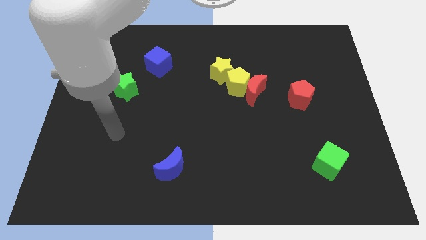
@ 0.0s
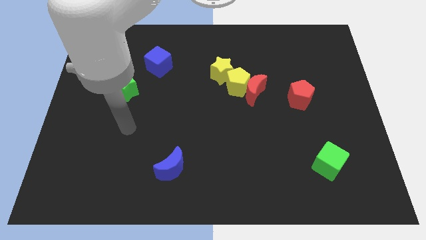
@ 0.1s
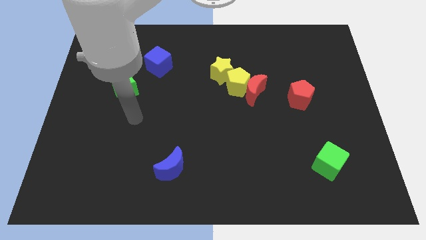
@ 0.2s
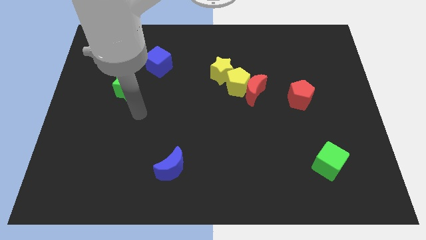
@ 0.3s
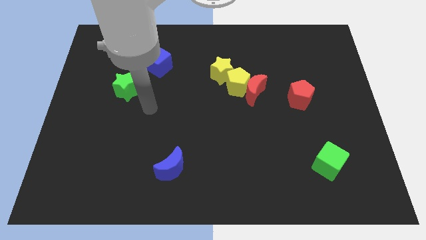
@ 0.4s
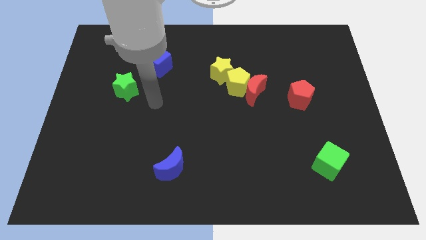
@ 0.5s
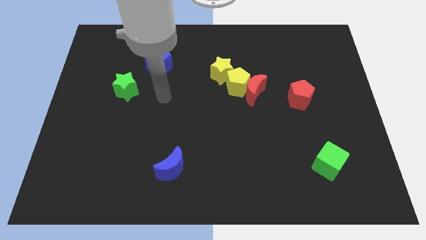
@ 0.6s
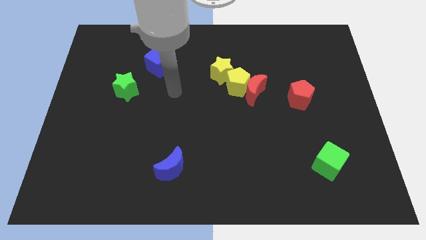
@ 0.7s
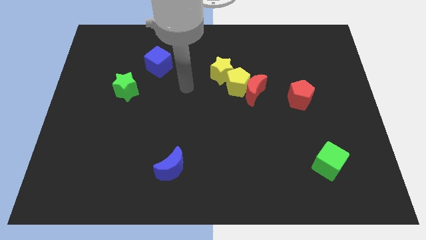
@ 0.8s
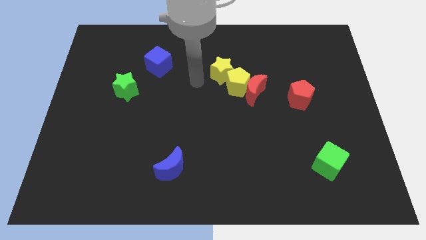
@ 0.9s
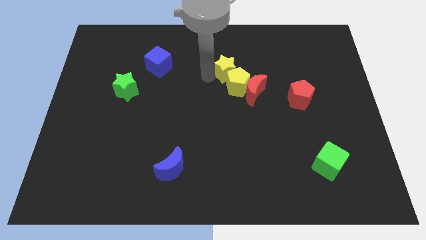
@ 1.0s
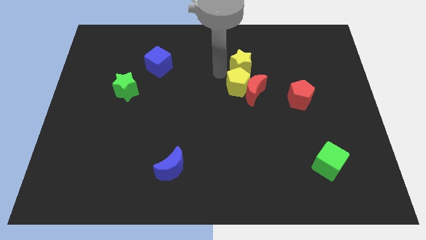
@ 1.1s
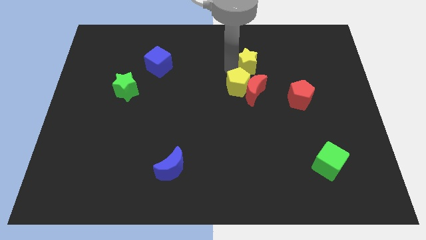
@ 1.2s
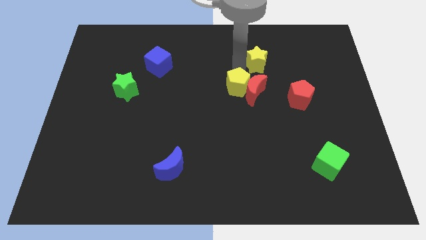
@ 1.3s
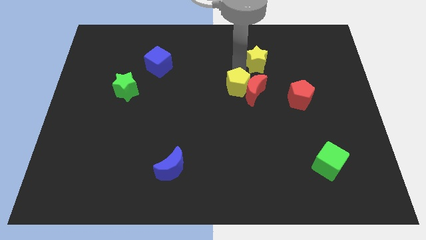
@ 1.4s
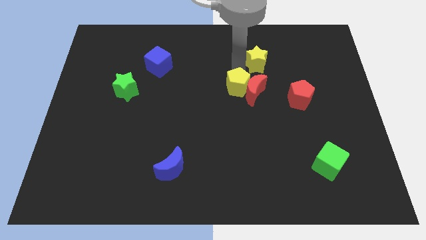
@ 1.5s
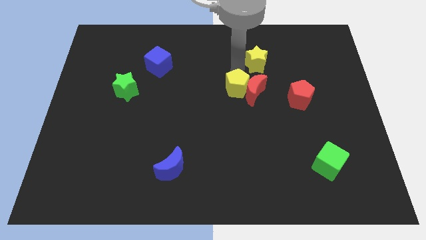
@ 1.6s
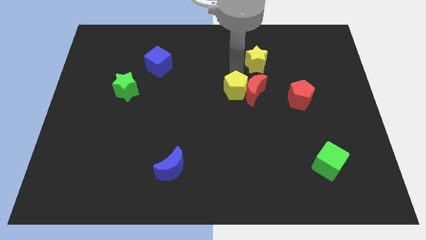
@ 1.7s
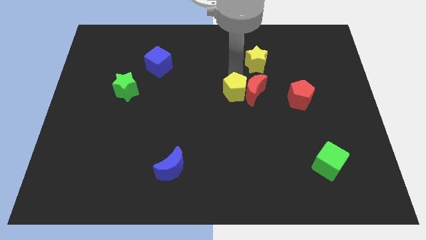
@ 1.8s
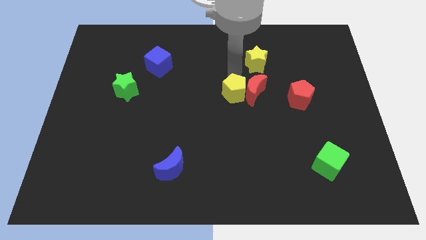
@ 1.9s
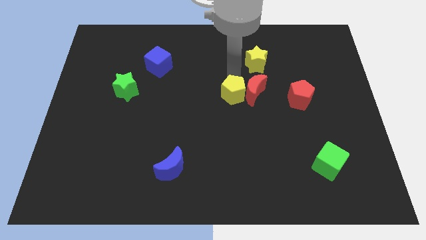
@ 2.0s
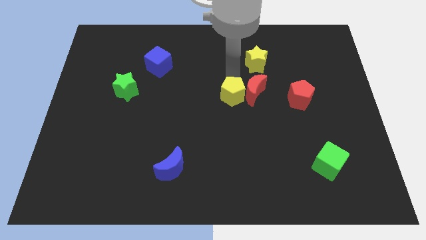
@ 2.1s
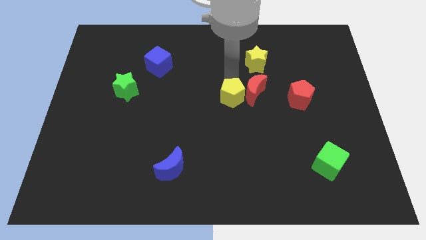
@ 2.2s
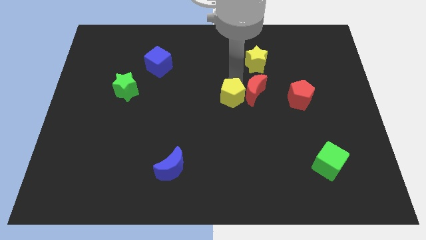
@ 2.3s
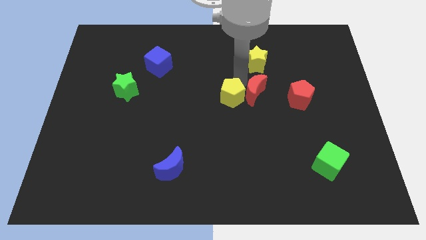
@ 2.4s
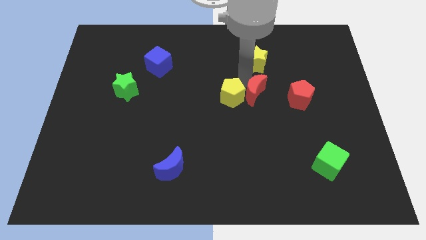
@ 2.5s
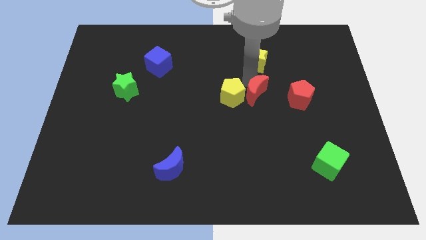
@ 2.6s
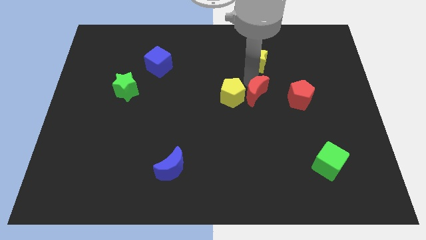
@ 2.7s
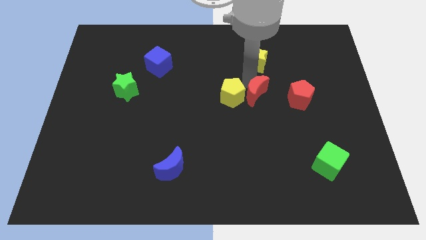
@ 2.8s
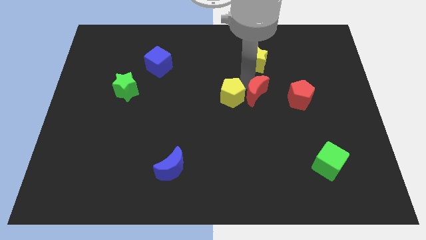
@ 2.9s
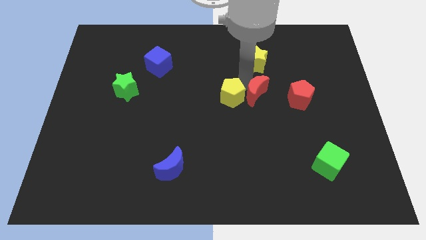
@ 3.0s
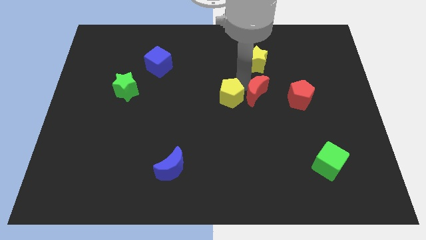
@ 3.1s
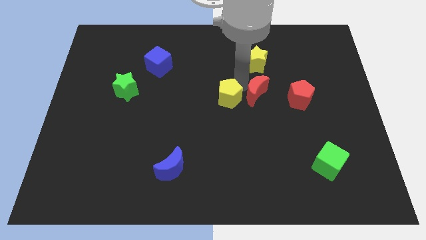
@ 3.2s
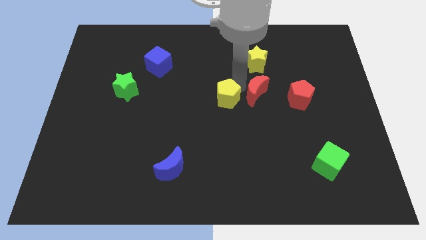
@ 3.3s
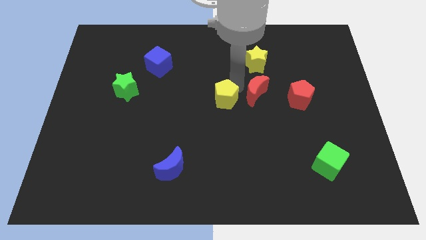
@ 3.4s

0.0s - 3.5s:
separate the yellow pentagon from the red moon and yellow star

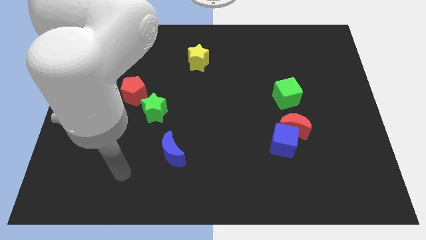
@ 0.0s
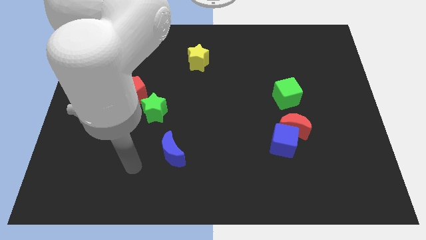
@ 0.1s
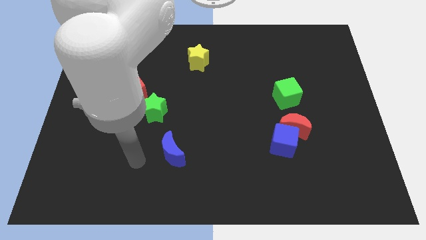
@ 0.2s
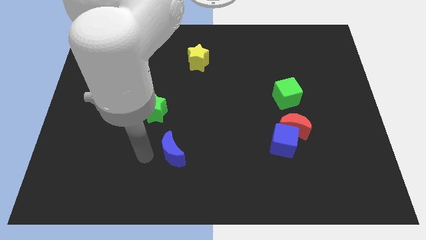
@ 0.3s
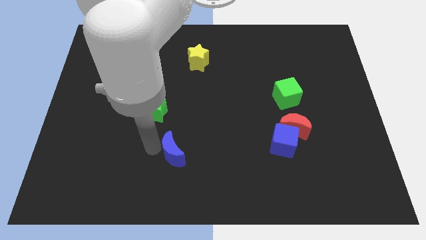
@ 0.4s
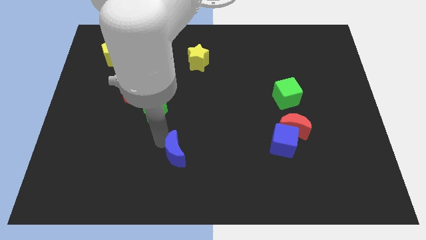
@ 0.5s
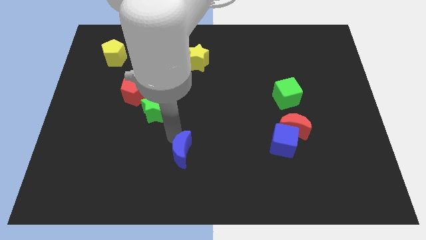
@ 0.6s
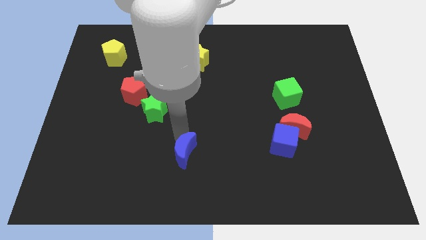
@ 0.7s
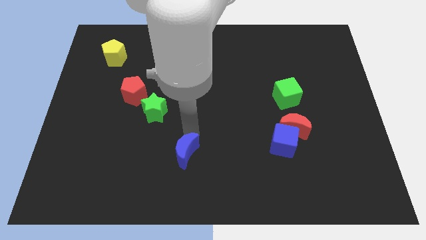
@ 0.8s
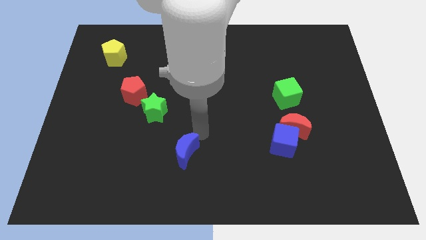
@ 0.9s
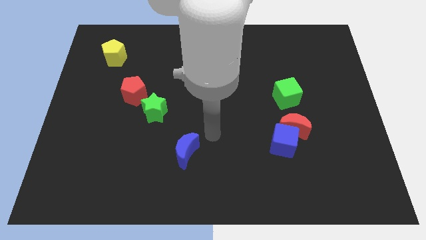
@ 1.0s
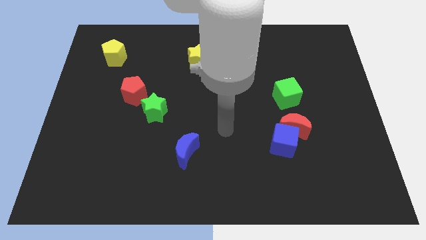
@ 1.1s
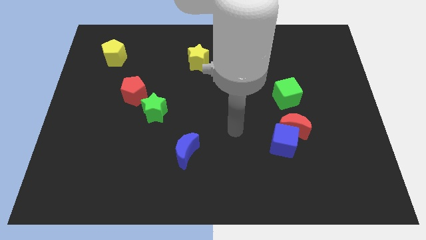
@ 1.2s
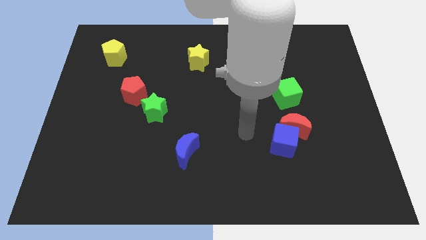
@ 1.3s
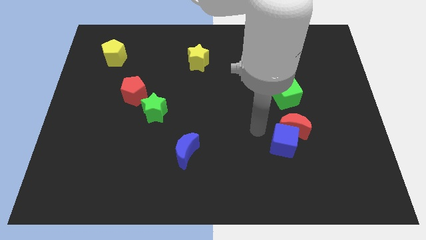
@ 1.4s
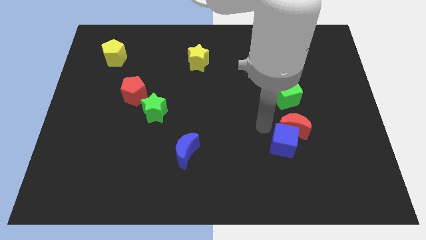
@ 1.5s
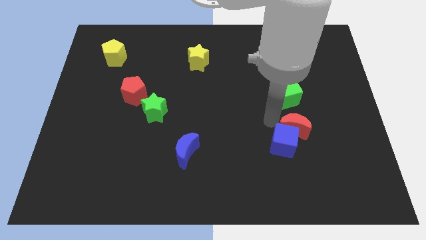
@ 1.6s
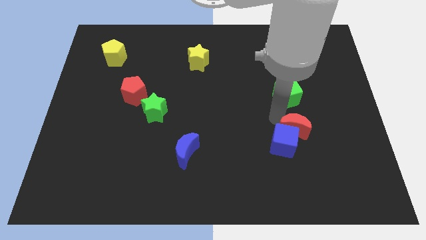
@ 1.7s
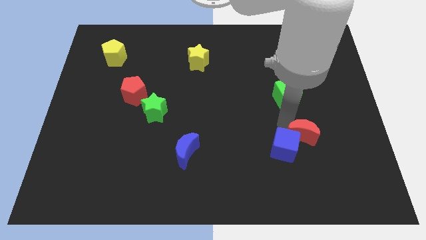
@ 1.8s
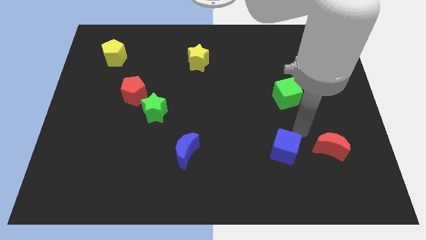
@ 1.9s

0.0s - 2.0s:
move the blue cube away from the red moon

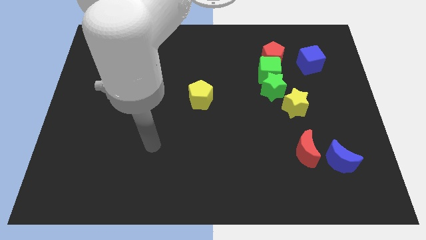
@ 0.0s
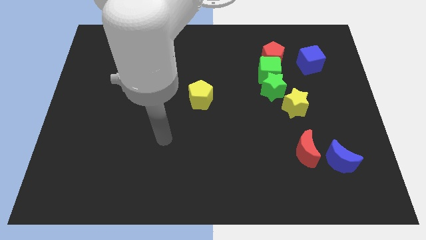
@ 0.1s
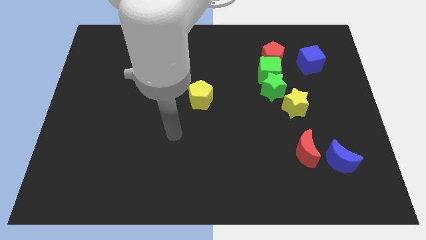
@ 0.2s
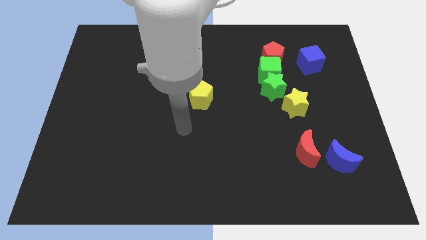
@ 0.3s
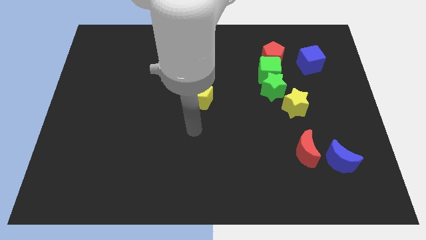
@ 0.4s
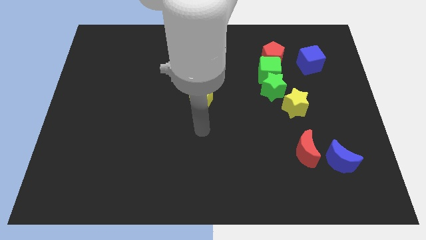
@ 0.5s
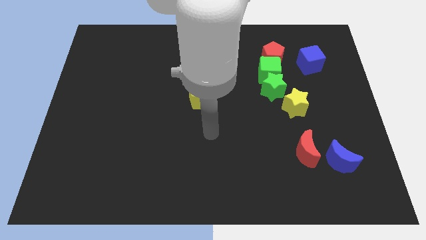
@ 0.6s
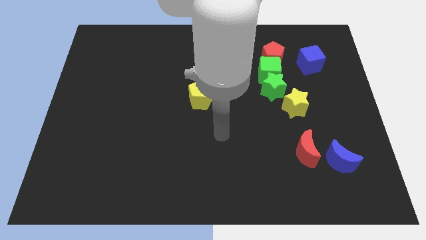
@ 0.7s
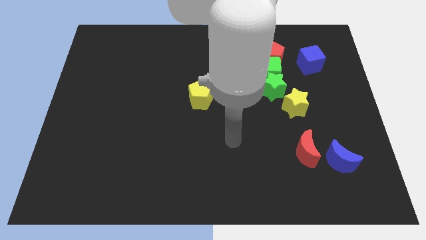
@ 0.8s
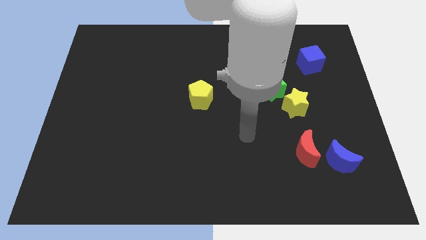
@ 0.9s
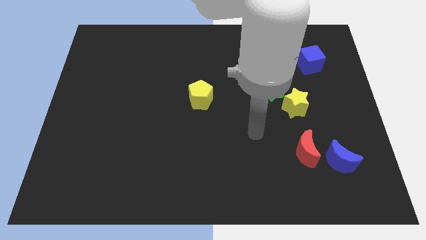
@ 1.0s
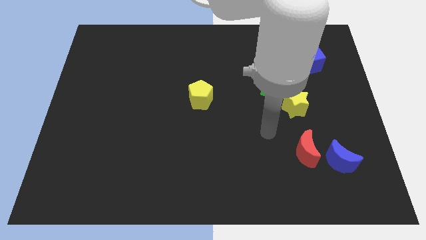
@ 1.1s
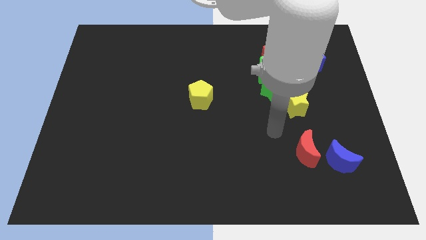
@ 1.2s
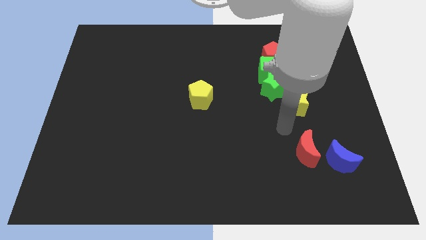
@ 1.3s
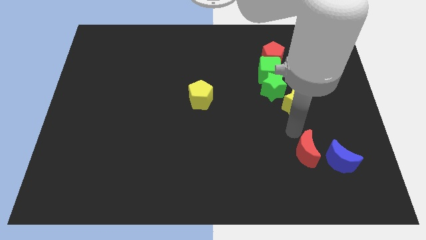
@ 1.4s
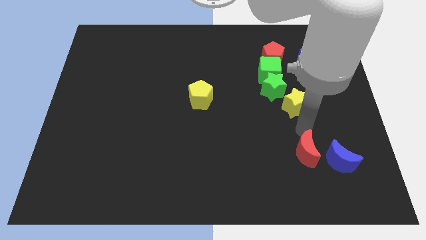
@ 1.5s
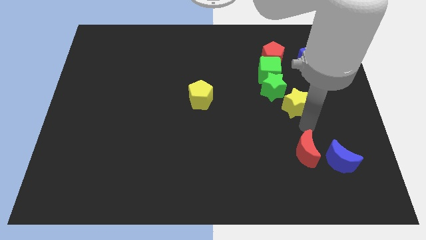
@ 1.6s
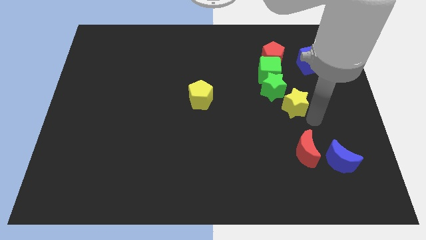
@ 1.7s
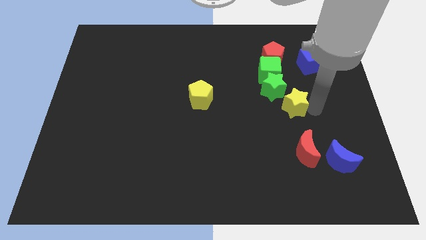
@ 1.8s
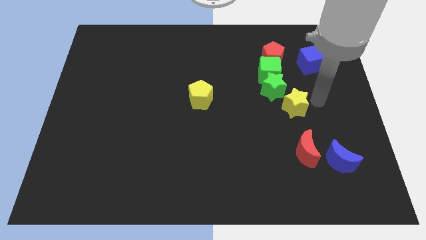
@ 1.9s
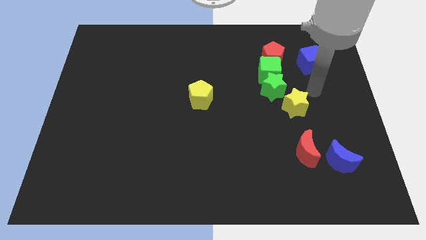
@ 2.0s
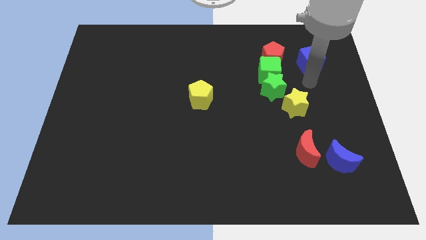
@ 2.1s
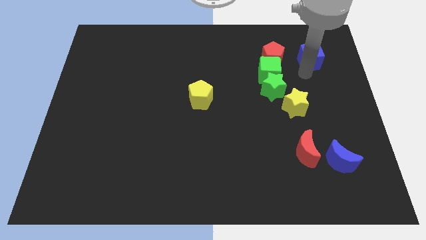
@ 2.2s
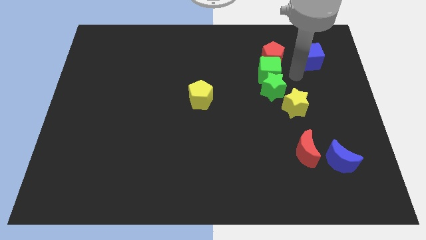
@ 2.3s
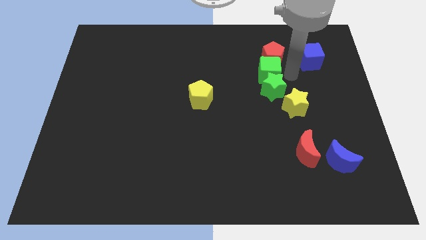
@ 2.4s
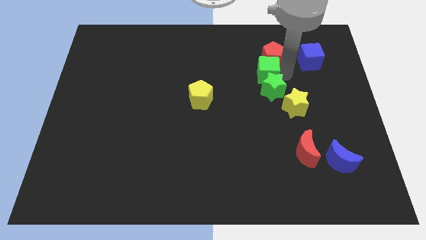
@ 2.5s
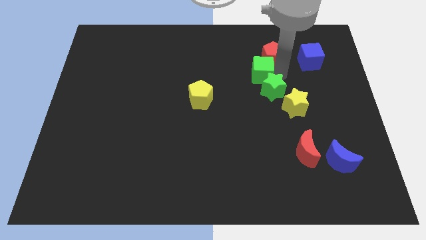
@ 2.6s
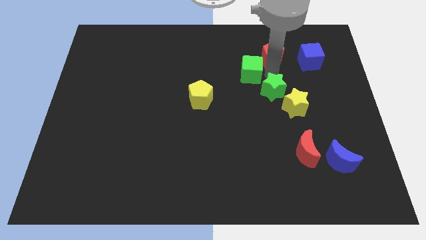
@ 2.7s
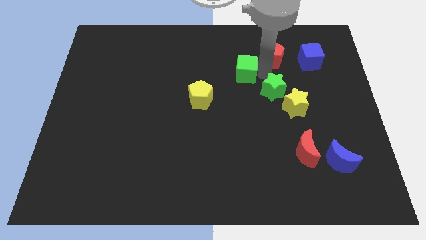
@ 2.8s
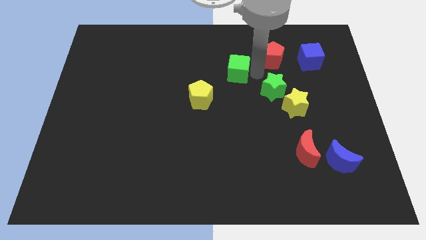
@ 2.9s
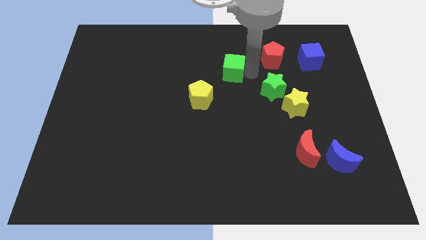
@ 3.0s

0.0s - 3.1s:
move the green cube away from the red pentagon and green star

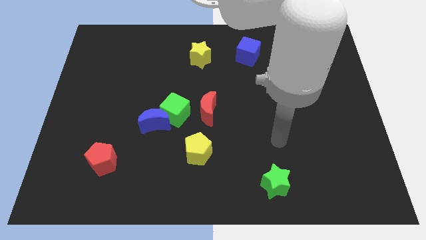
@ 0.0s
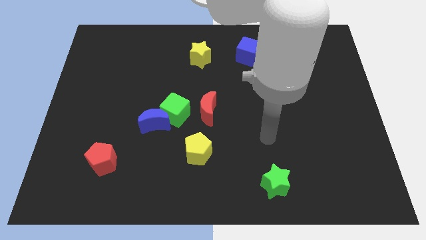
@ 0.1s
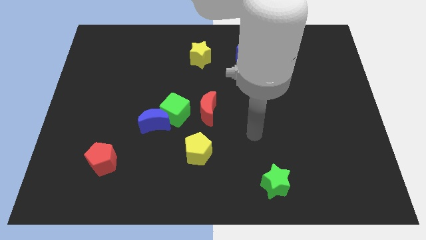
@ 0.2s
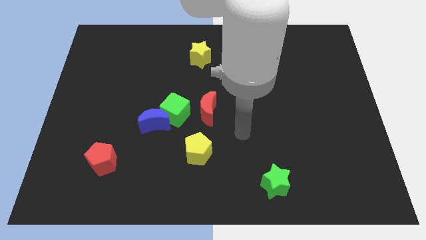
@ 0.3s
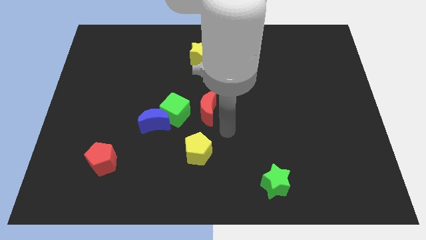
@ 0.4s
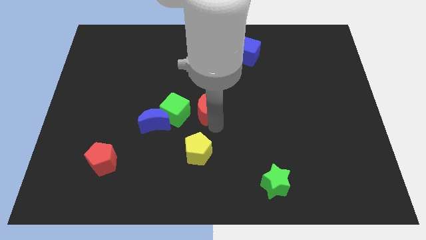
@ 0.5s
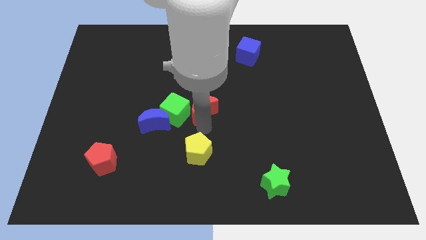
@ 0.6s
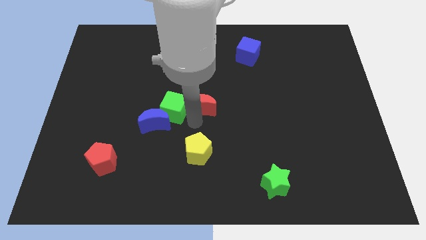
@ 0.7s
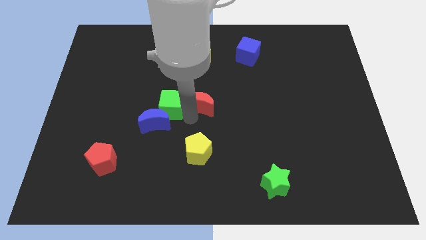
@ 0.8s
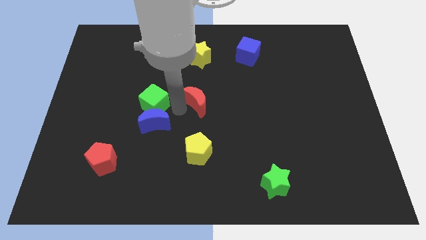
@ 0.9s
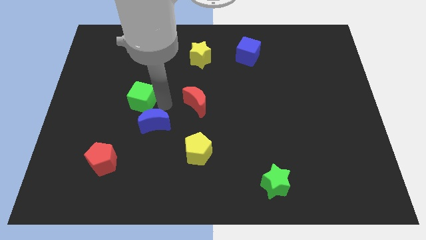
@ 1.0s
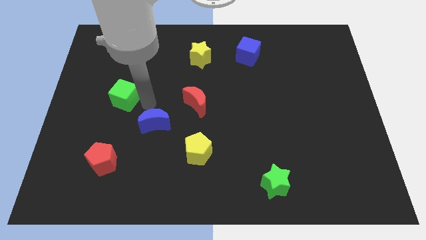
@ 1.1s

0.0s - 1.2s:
separate the blue moon from the green cube
